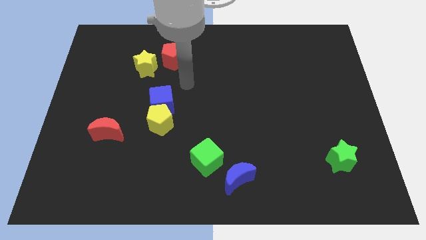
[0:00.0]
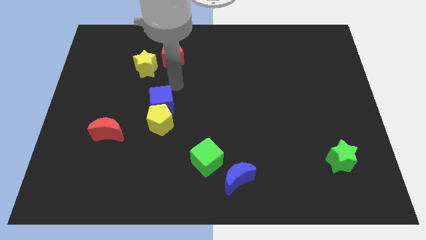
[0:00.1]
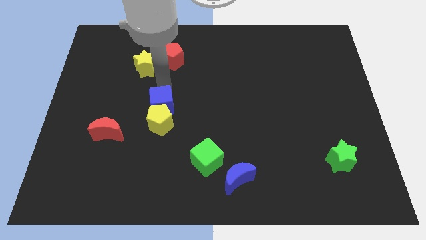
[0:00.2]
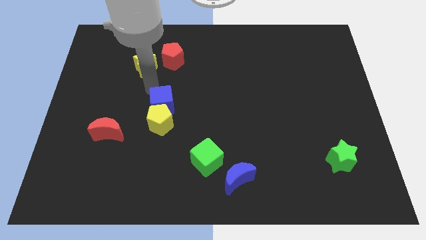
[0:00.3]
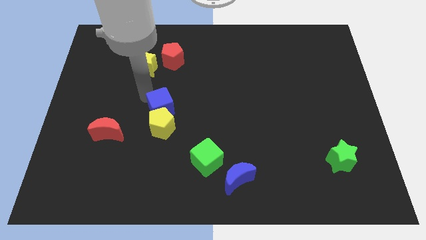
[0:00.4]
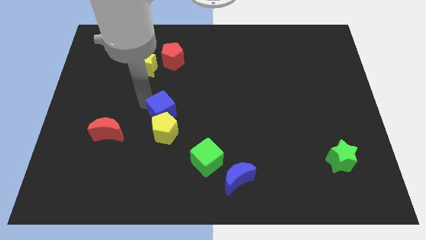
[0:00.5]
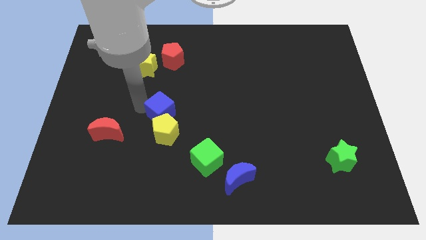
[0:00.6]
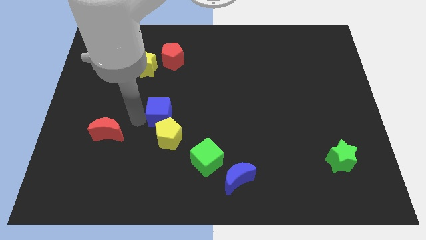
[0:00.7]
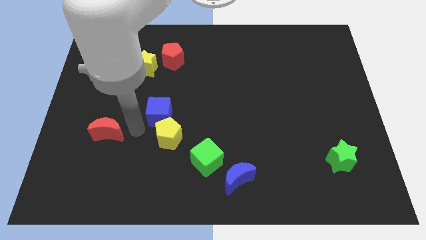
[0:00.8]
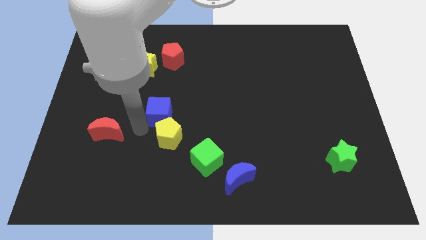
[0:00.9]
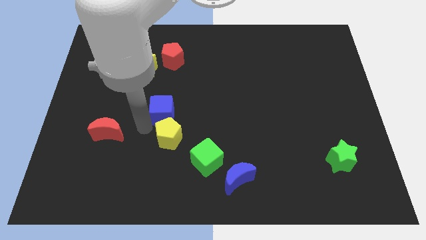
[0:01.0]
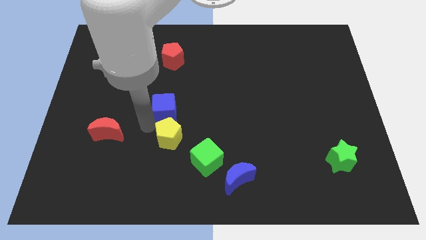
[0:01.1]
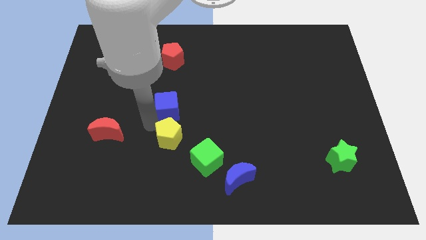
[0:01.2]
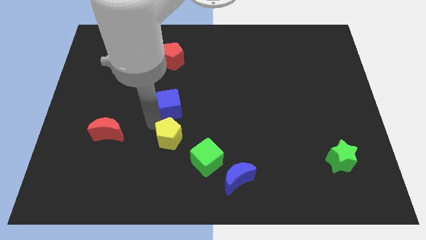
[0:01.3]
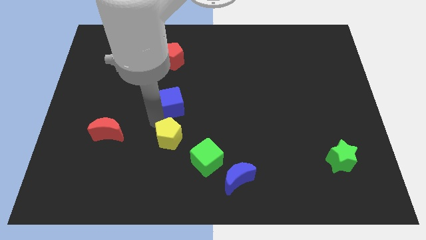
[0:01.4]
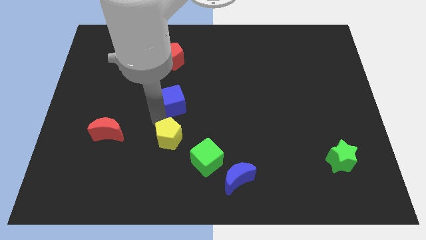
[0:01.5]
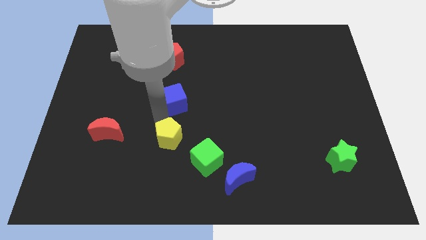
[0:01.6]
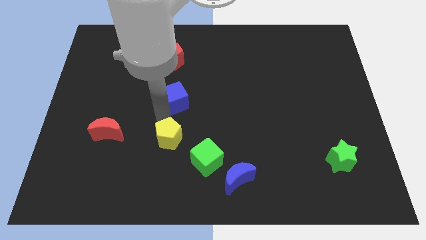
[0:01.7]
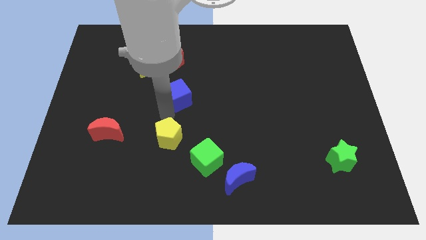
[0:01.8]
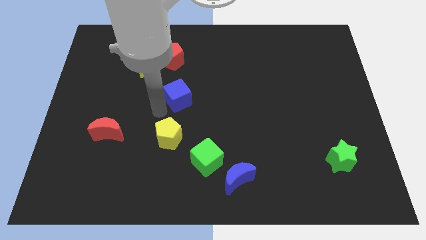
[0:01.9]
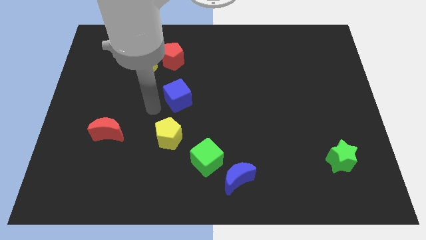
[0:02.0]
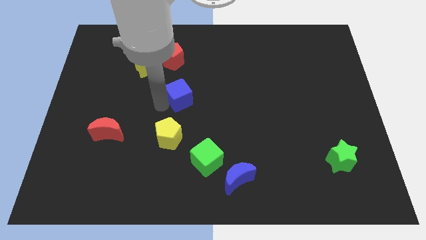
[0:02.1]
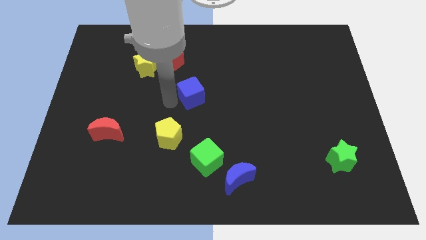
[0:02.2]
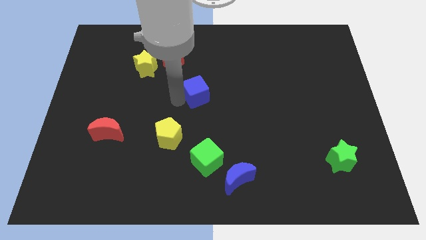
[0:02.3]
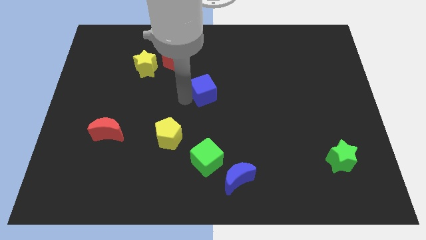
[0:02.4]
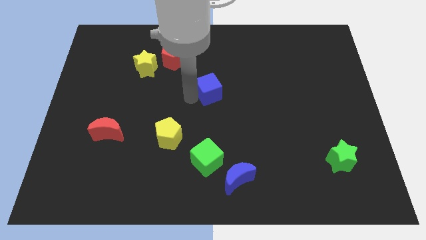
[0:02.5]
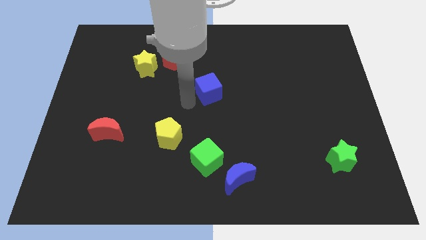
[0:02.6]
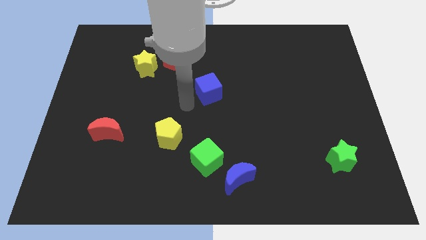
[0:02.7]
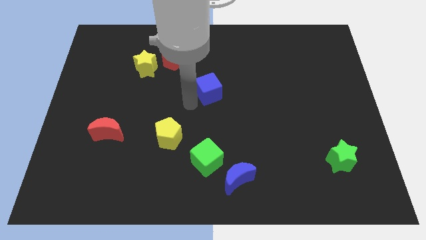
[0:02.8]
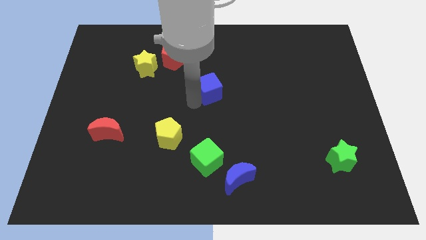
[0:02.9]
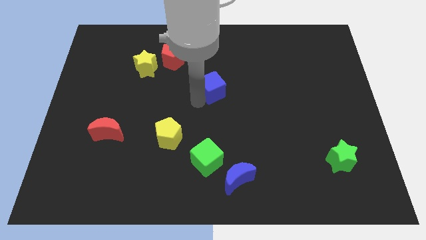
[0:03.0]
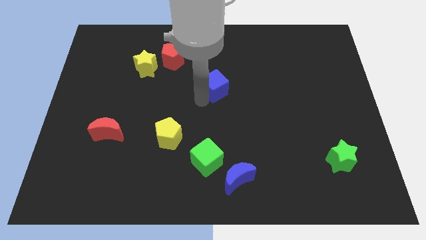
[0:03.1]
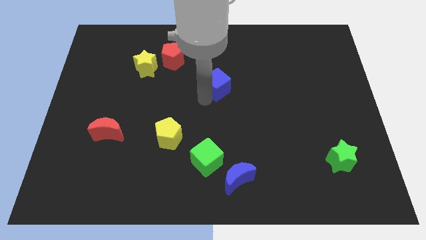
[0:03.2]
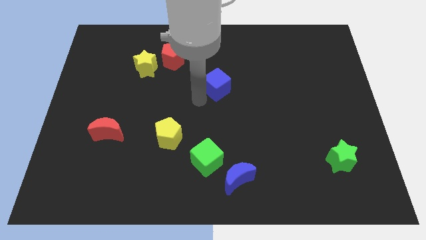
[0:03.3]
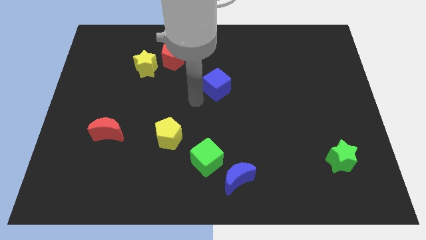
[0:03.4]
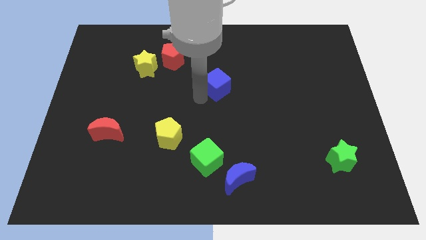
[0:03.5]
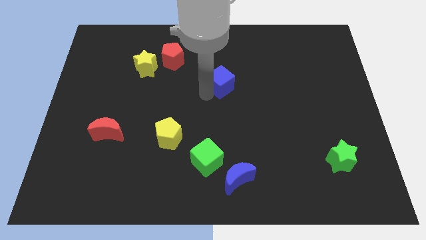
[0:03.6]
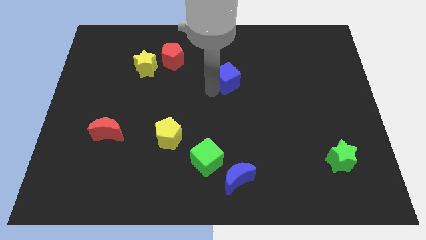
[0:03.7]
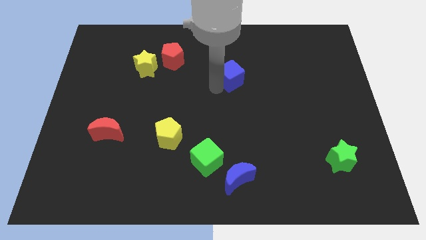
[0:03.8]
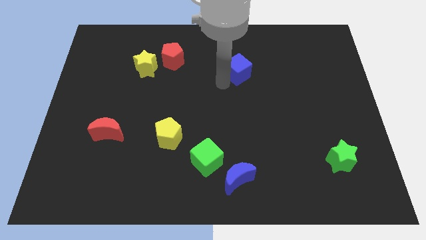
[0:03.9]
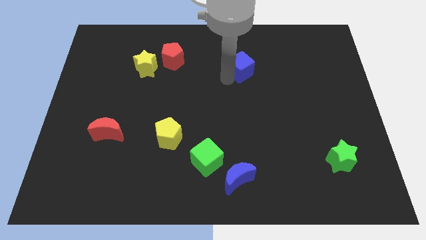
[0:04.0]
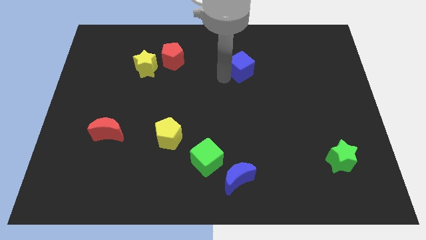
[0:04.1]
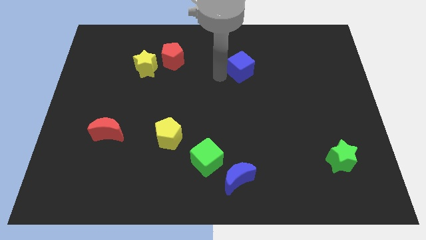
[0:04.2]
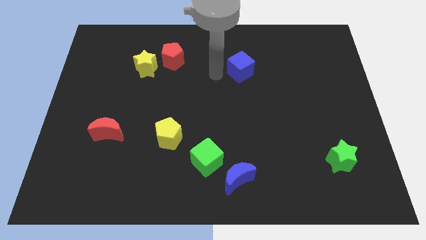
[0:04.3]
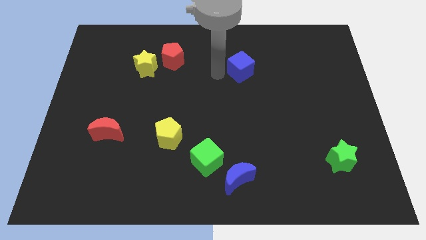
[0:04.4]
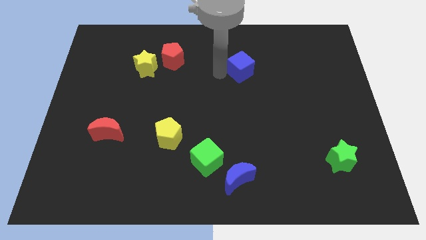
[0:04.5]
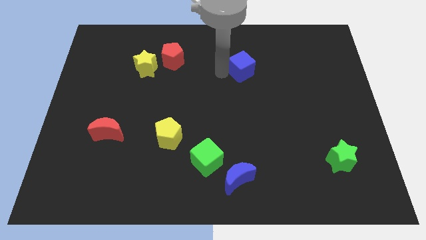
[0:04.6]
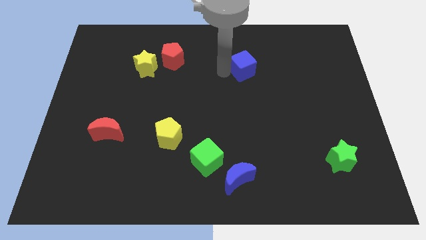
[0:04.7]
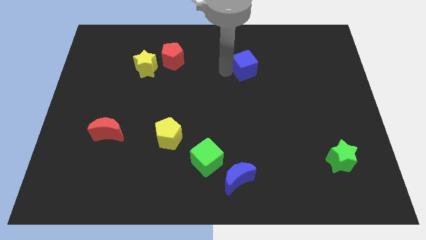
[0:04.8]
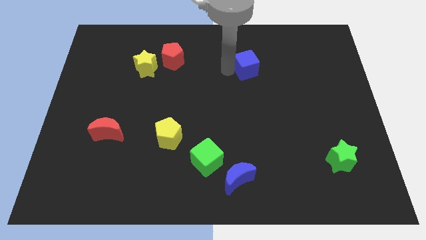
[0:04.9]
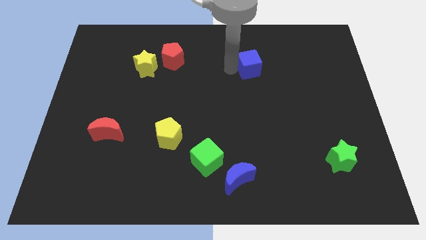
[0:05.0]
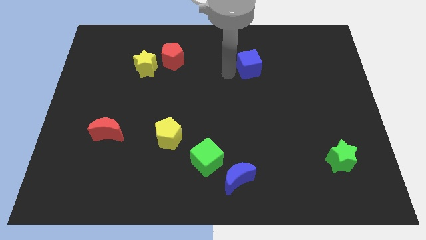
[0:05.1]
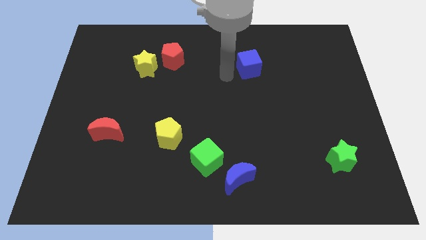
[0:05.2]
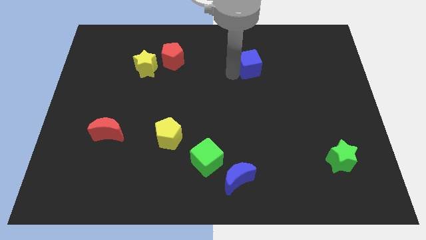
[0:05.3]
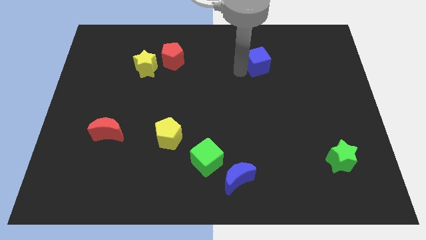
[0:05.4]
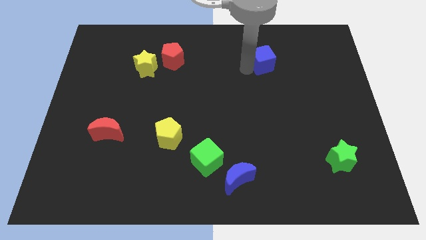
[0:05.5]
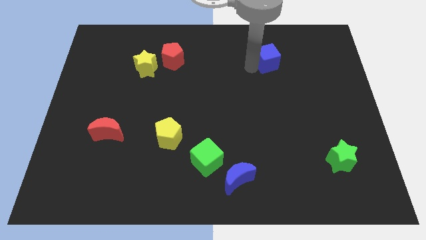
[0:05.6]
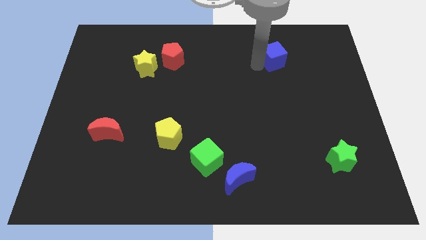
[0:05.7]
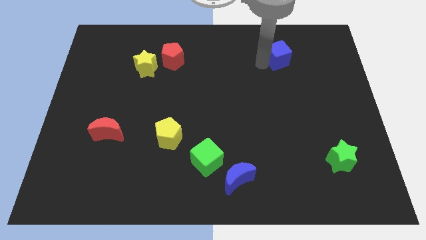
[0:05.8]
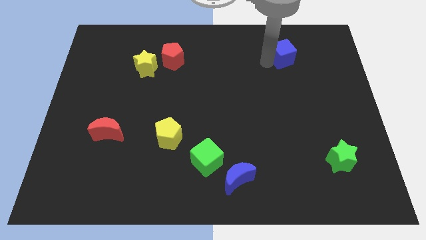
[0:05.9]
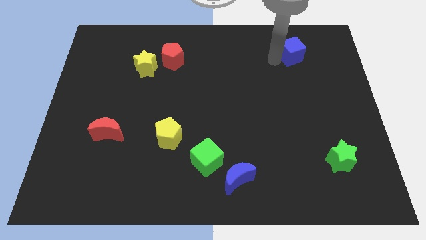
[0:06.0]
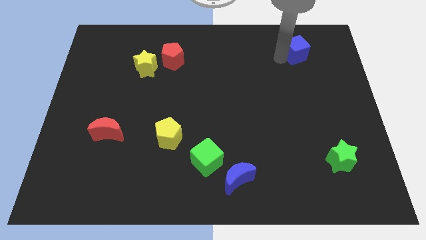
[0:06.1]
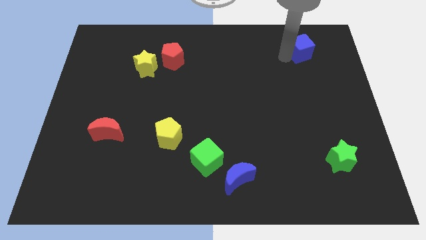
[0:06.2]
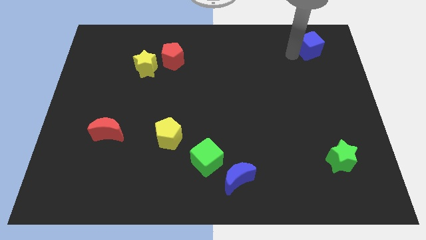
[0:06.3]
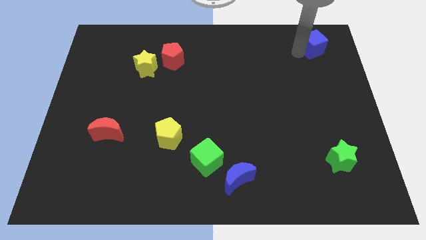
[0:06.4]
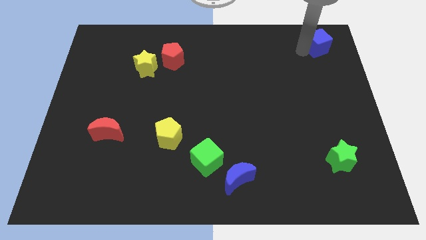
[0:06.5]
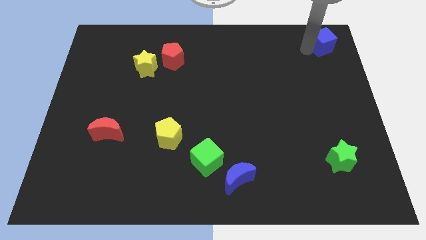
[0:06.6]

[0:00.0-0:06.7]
push the blue cube to the top right corner
